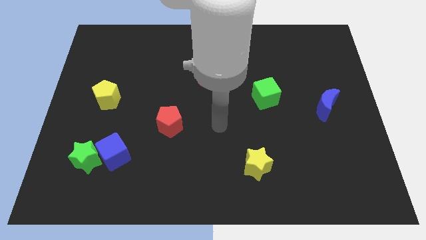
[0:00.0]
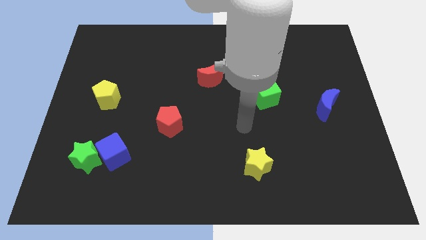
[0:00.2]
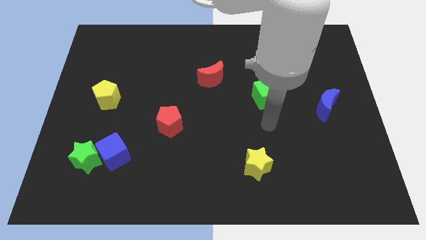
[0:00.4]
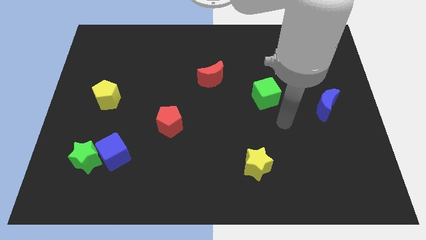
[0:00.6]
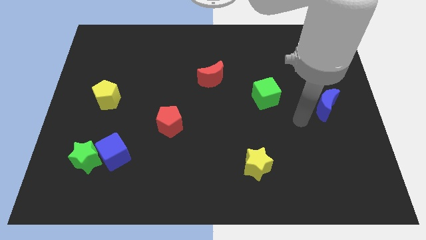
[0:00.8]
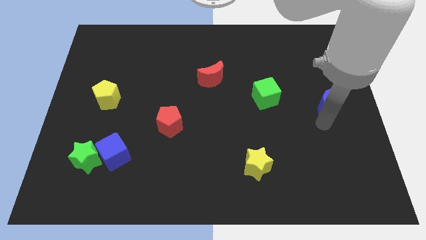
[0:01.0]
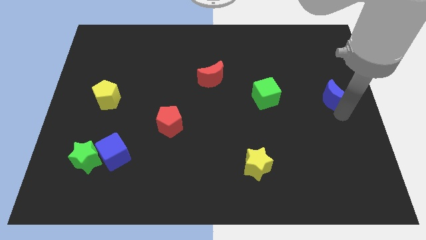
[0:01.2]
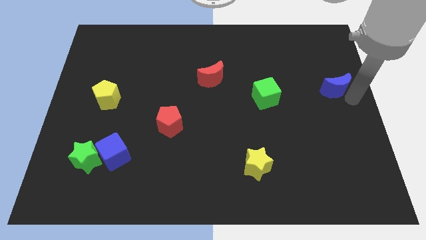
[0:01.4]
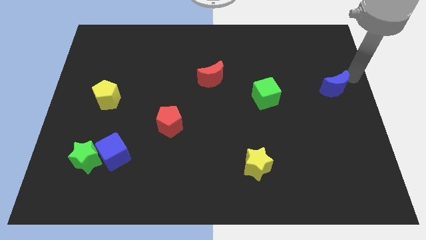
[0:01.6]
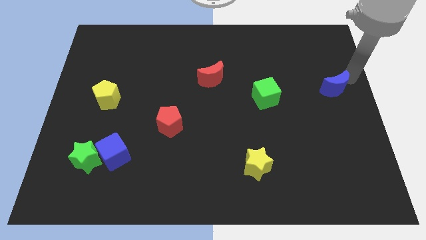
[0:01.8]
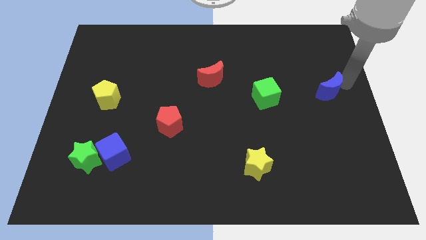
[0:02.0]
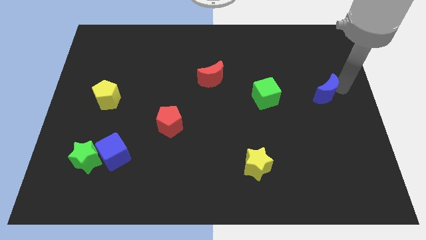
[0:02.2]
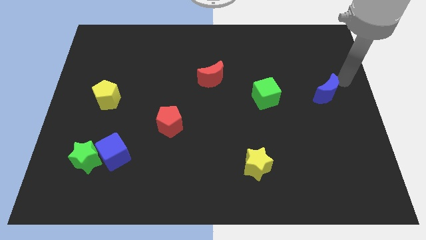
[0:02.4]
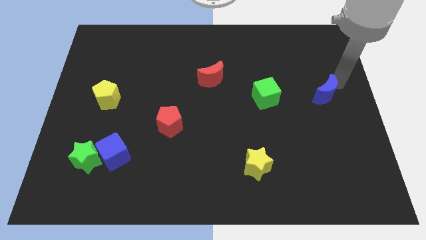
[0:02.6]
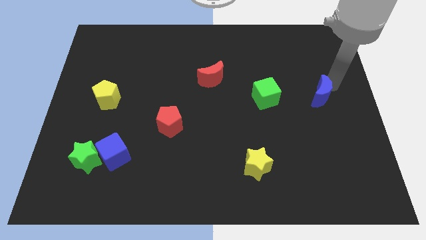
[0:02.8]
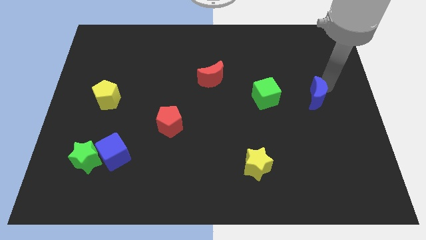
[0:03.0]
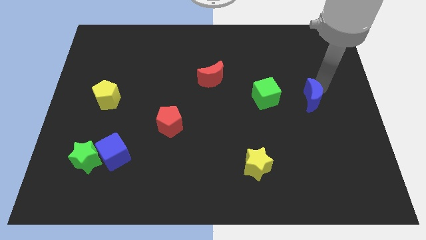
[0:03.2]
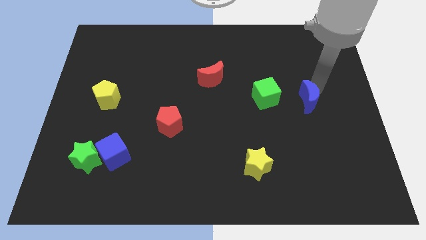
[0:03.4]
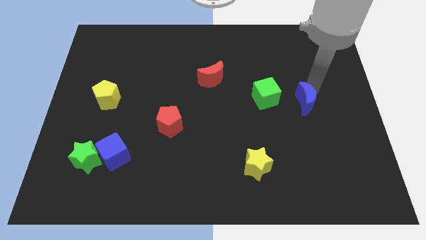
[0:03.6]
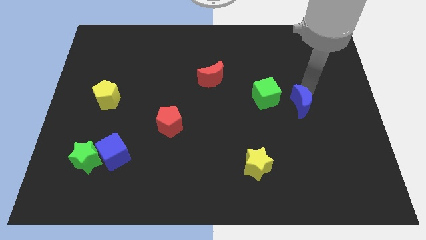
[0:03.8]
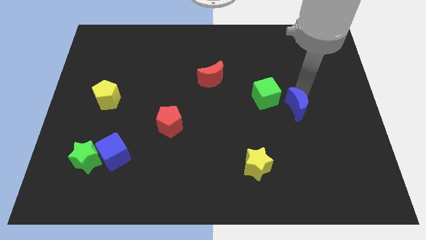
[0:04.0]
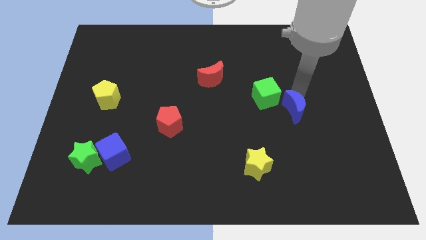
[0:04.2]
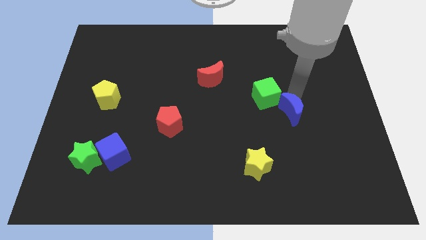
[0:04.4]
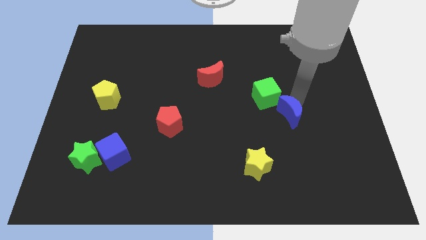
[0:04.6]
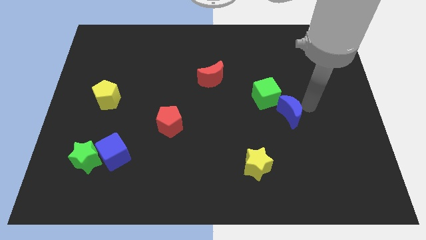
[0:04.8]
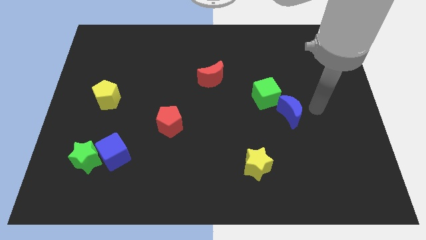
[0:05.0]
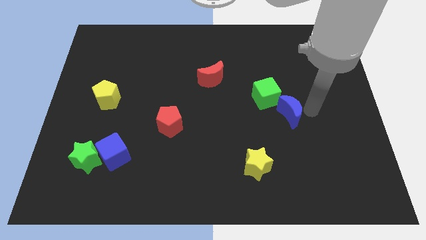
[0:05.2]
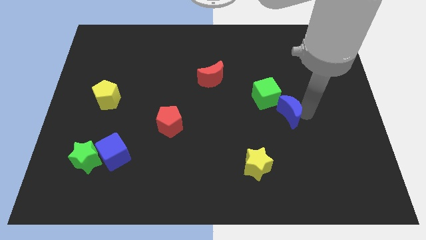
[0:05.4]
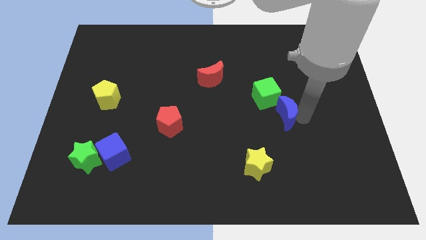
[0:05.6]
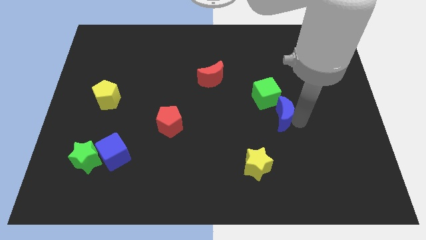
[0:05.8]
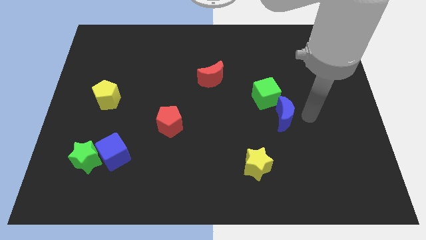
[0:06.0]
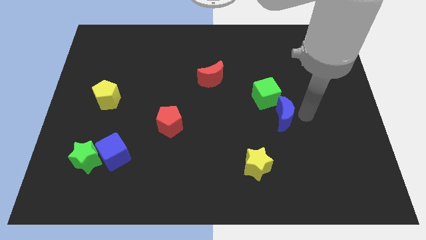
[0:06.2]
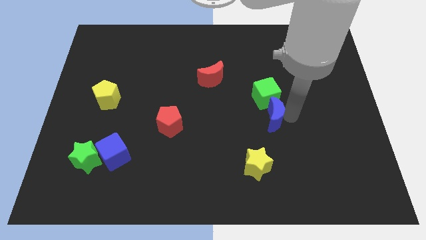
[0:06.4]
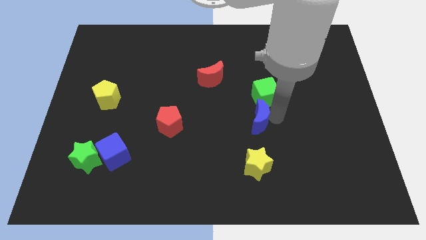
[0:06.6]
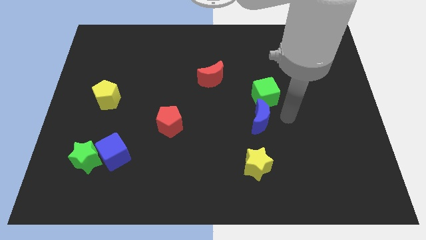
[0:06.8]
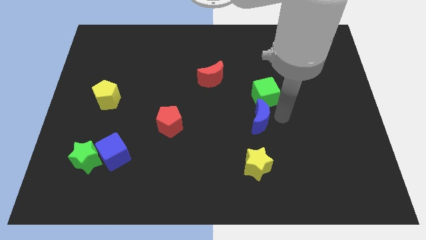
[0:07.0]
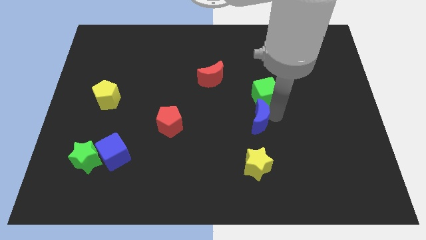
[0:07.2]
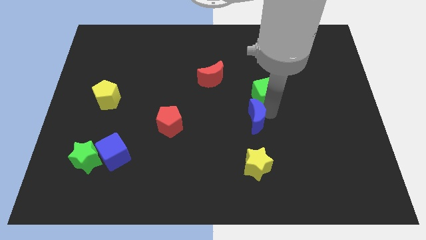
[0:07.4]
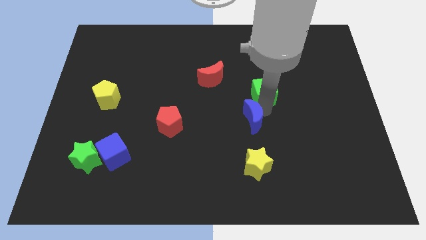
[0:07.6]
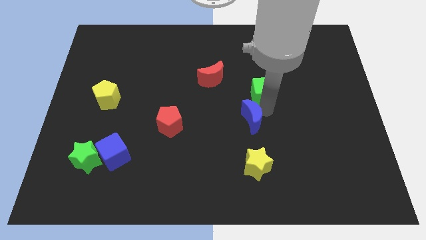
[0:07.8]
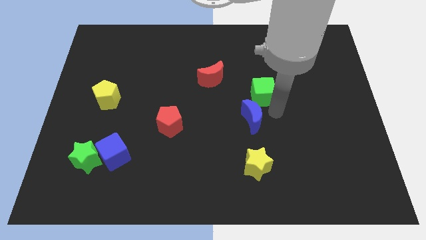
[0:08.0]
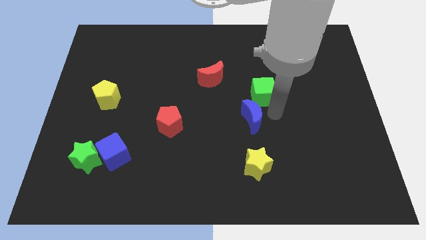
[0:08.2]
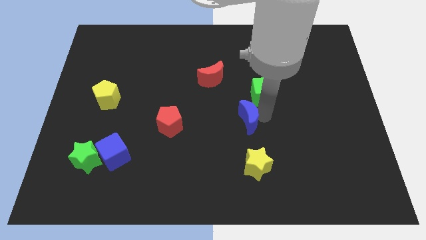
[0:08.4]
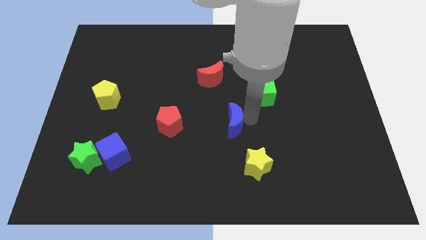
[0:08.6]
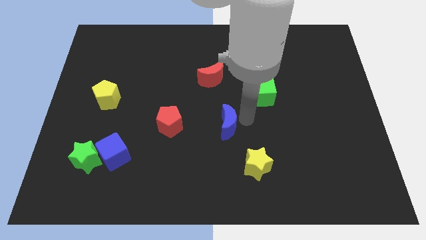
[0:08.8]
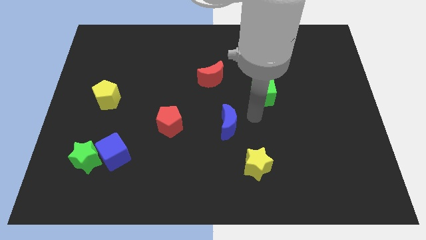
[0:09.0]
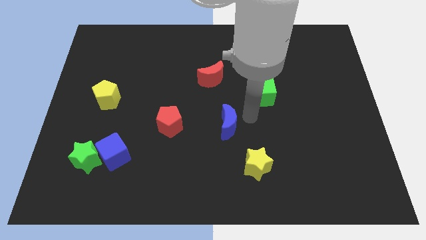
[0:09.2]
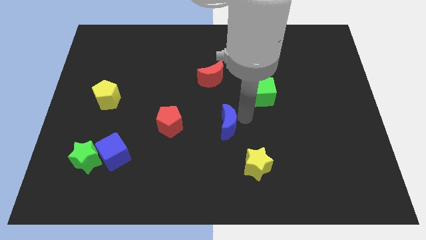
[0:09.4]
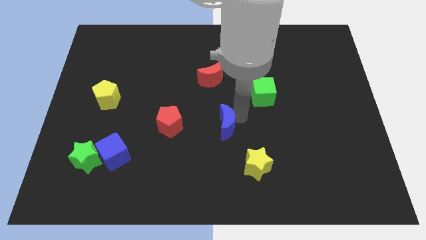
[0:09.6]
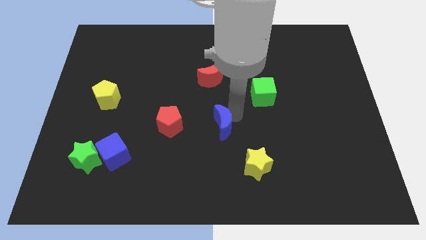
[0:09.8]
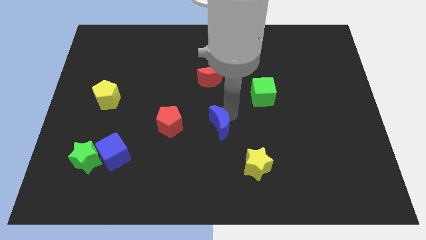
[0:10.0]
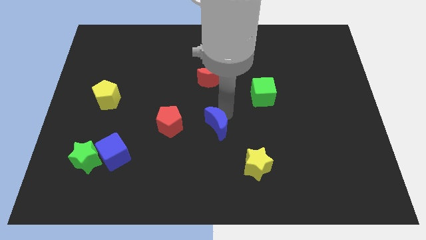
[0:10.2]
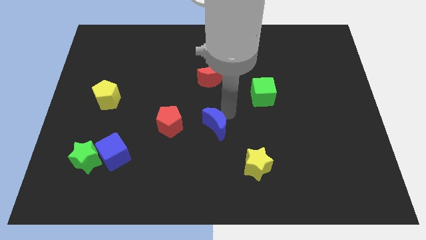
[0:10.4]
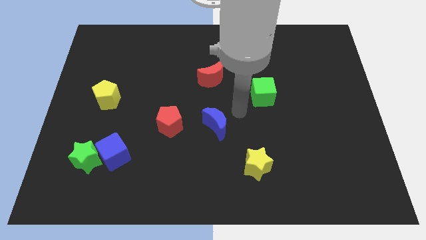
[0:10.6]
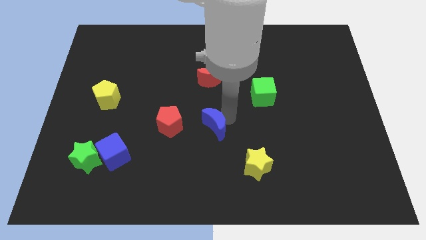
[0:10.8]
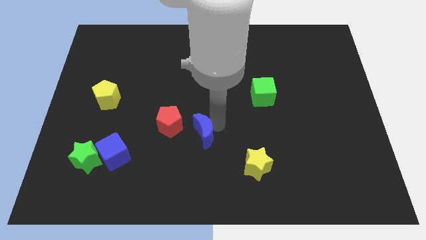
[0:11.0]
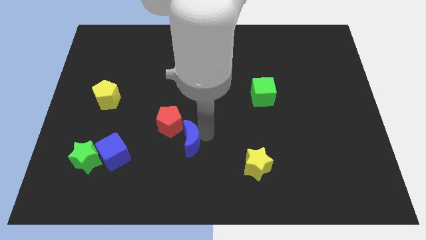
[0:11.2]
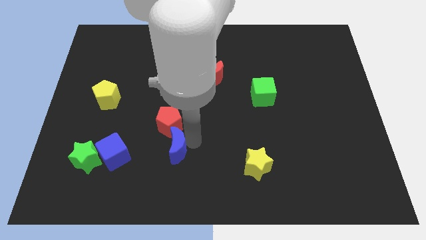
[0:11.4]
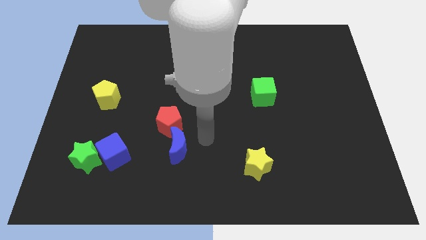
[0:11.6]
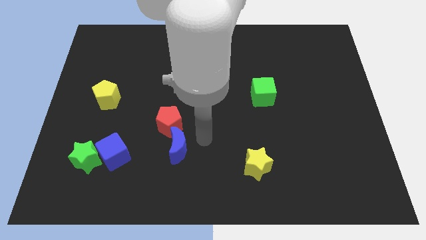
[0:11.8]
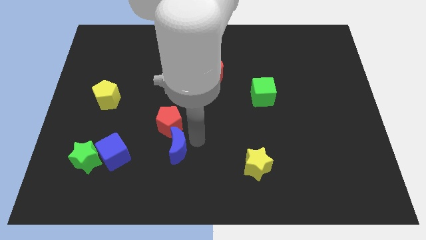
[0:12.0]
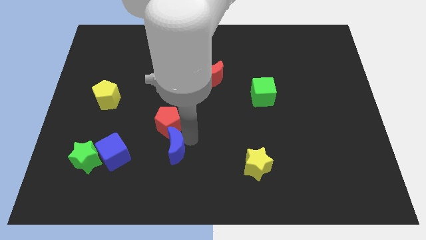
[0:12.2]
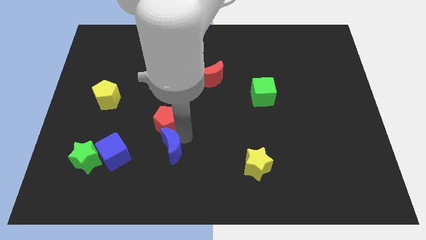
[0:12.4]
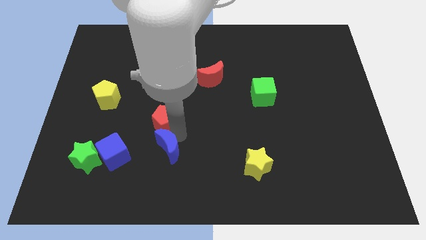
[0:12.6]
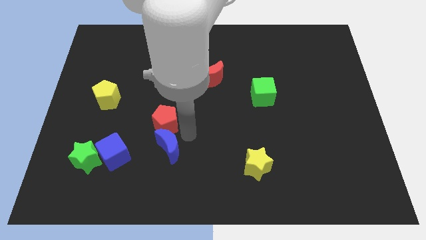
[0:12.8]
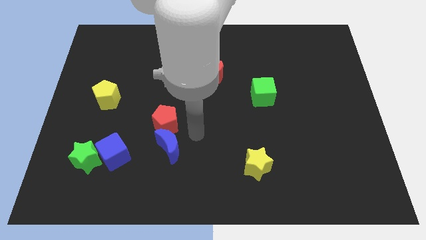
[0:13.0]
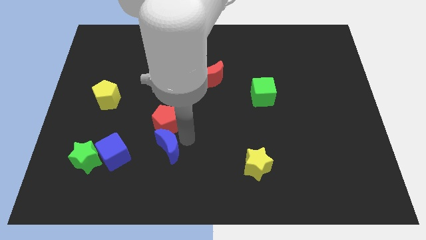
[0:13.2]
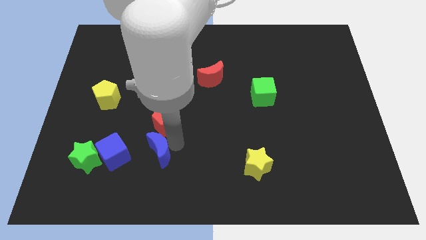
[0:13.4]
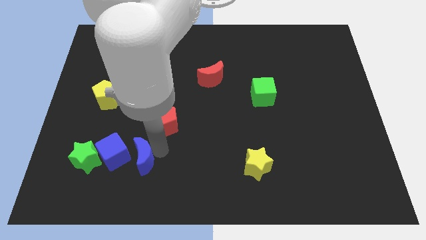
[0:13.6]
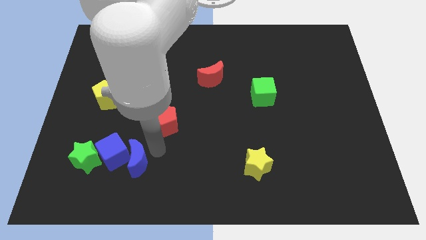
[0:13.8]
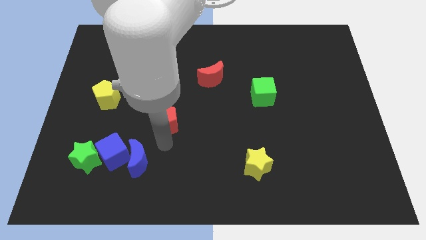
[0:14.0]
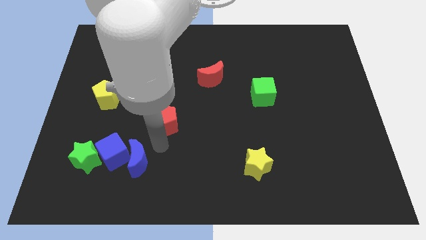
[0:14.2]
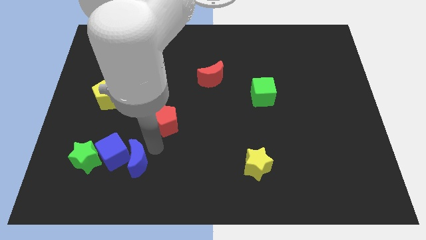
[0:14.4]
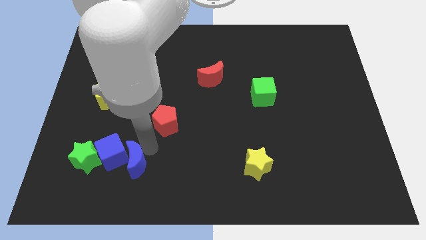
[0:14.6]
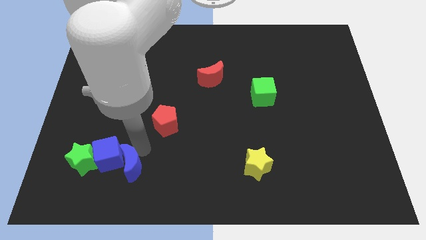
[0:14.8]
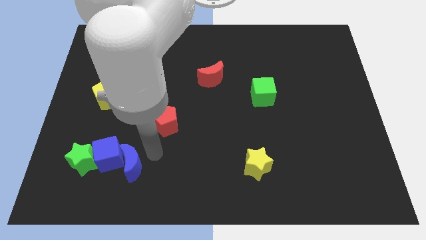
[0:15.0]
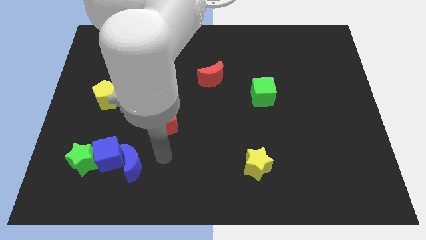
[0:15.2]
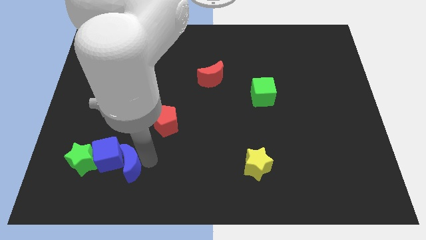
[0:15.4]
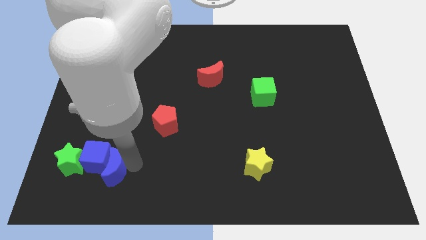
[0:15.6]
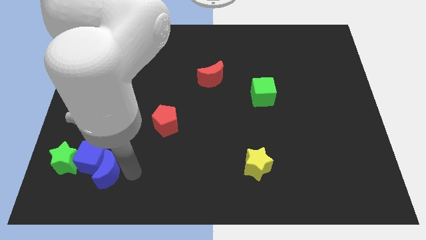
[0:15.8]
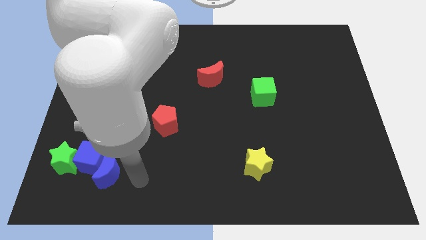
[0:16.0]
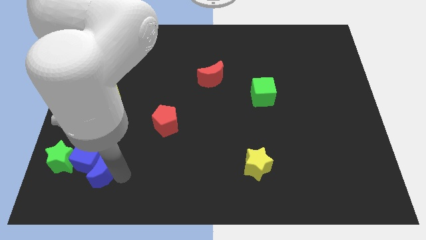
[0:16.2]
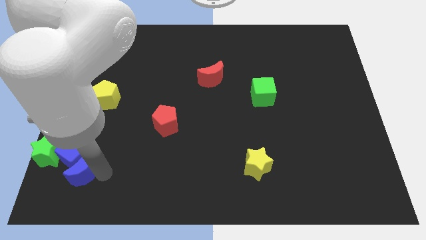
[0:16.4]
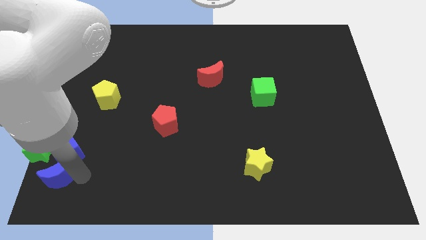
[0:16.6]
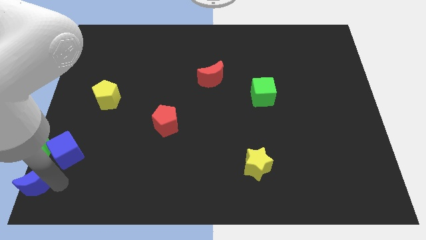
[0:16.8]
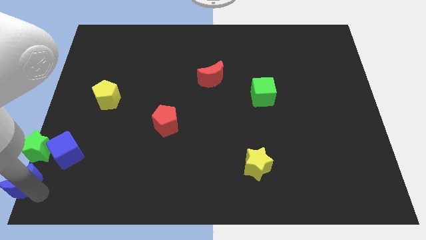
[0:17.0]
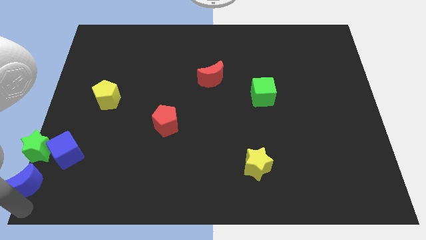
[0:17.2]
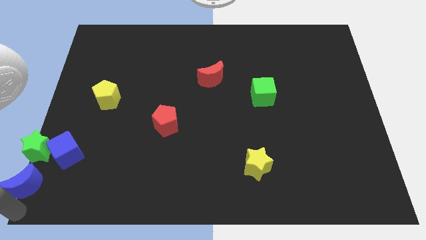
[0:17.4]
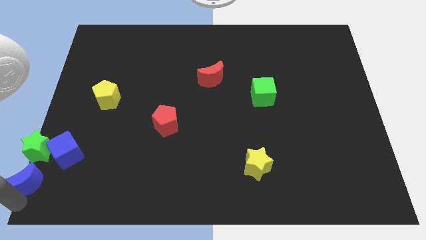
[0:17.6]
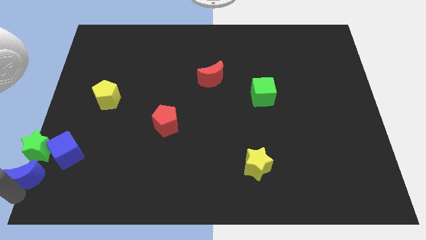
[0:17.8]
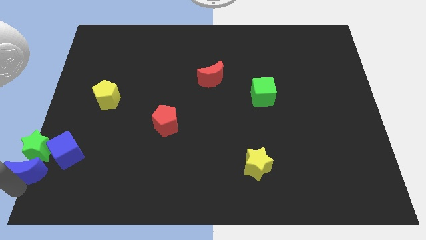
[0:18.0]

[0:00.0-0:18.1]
put the blue moon close to the green star
